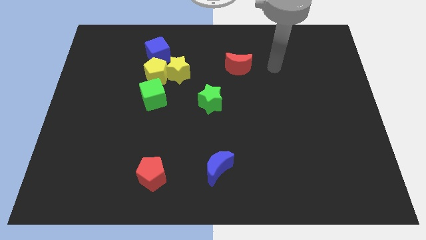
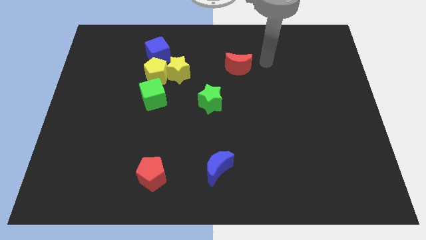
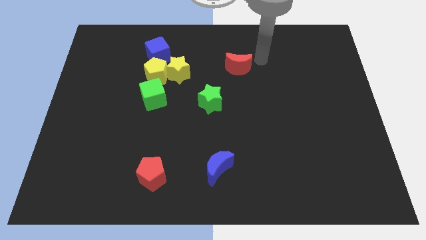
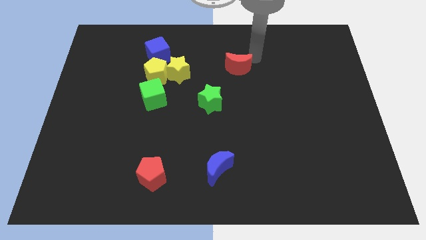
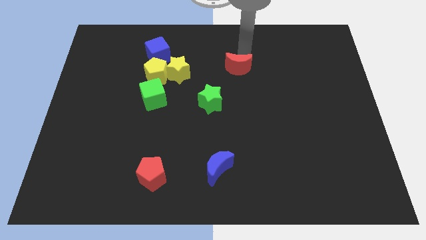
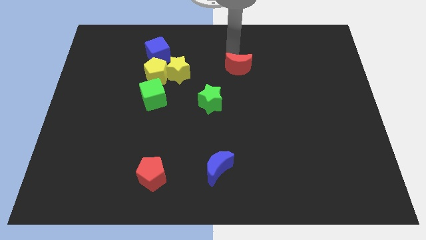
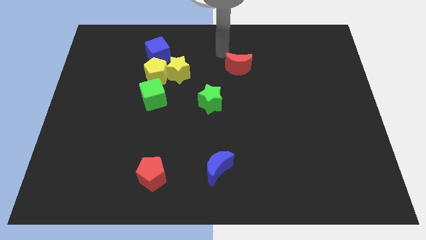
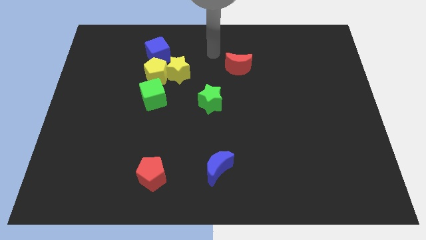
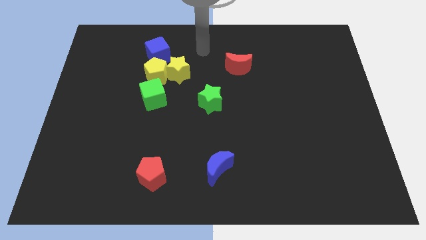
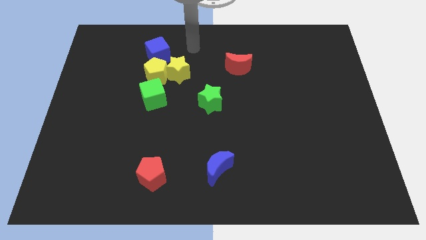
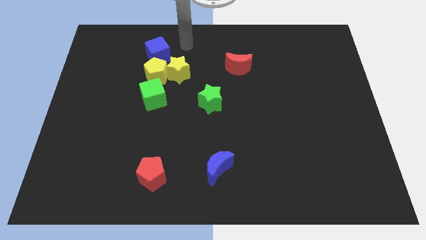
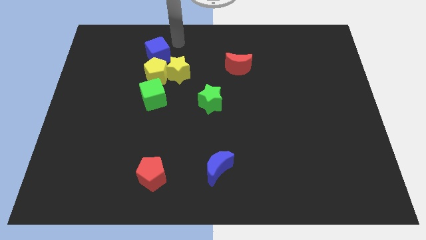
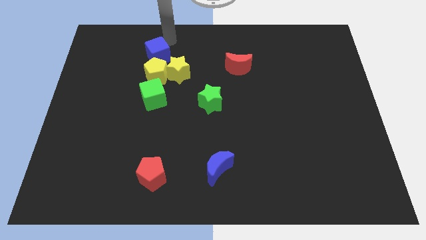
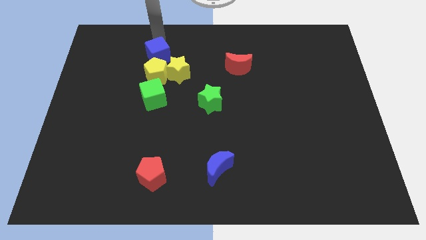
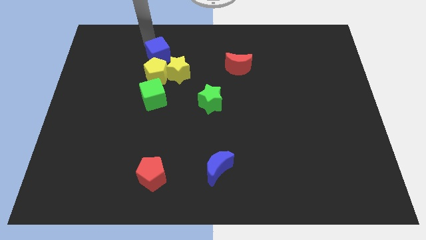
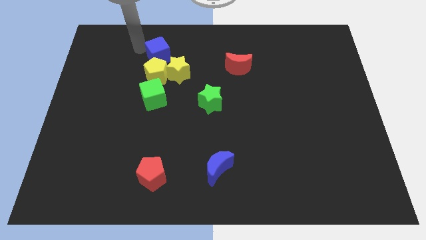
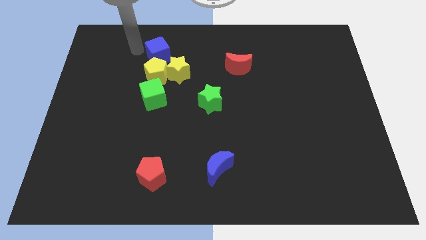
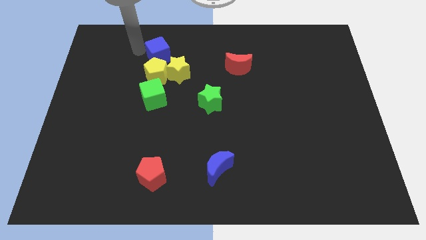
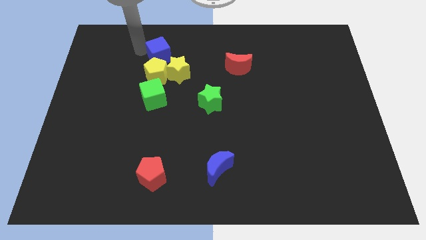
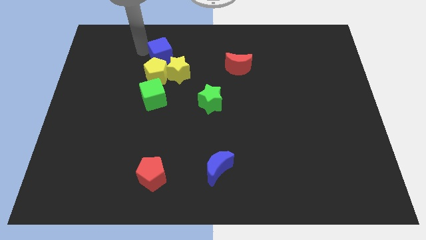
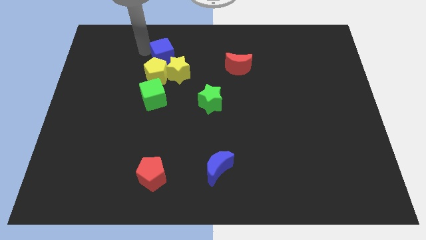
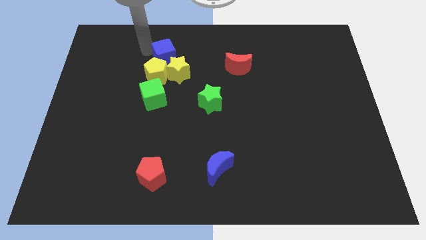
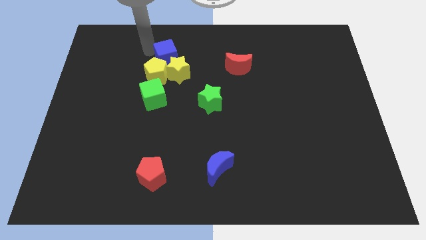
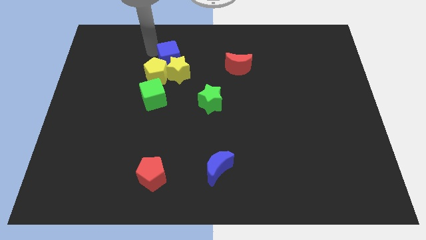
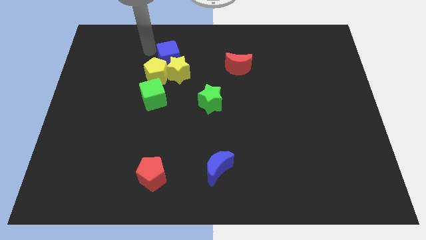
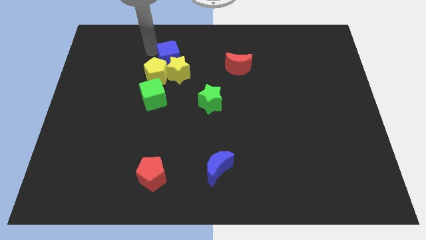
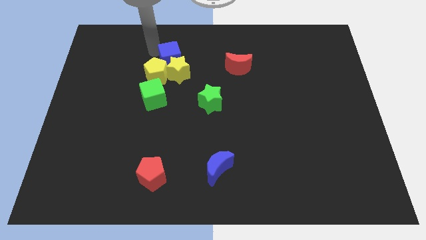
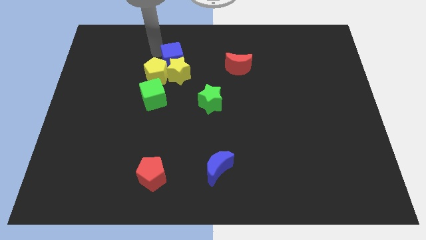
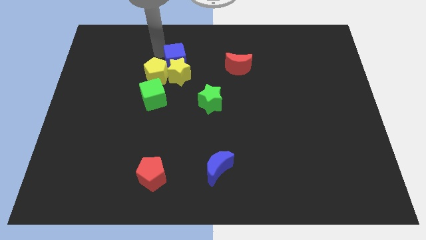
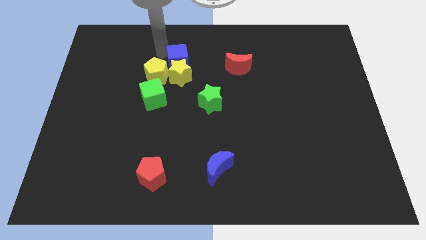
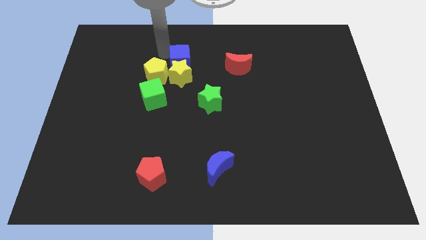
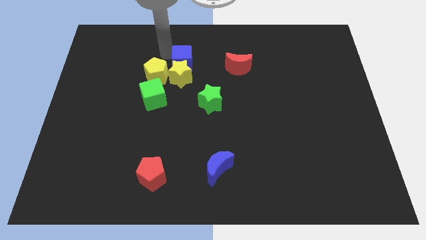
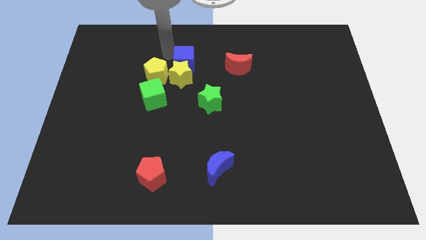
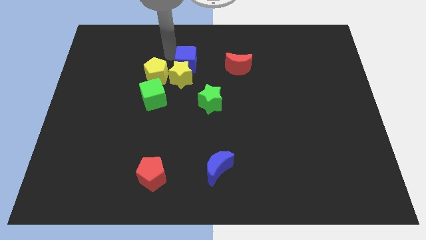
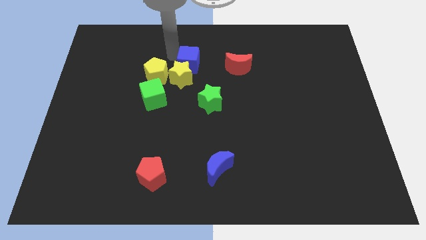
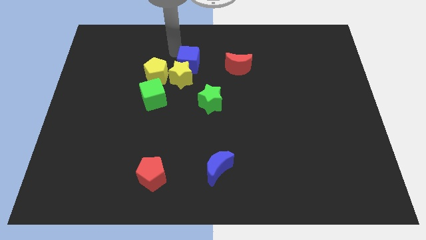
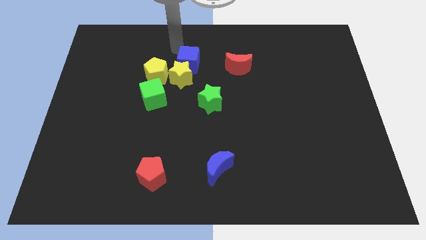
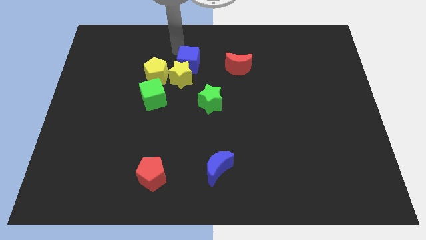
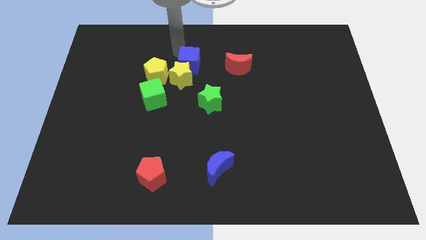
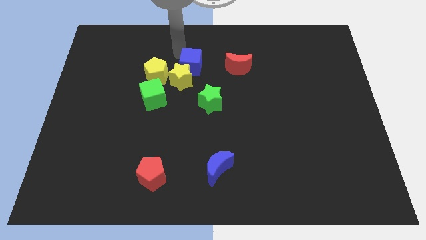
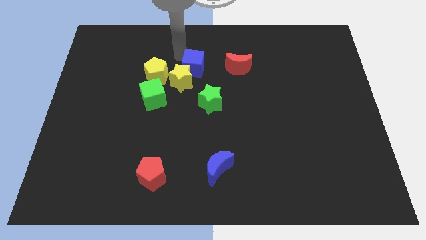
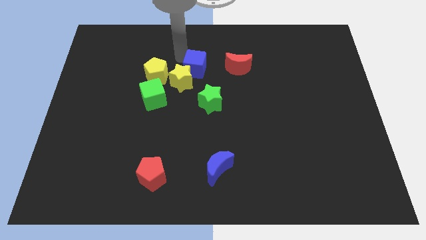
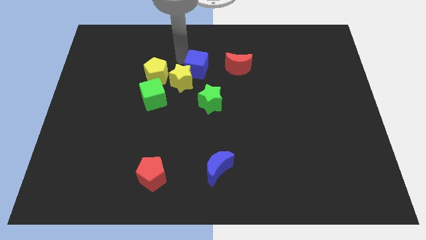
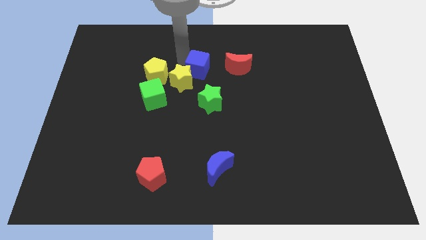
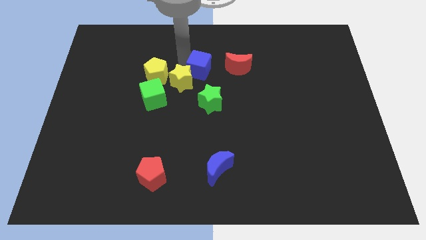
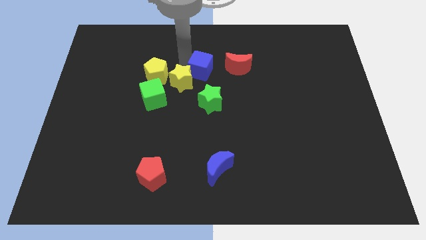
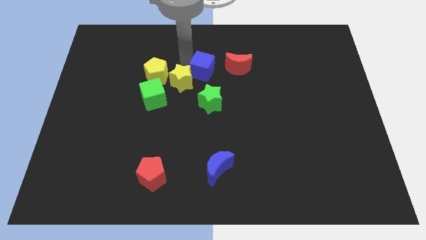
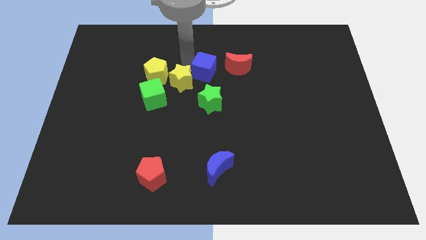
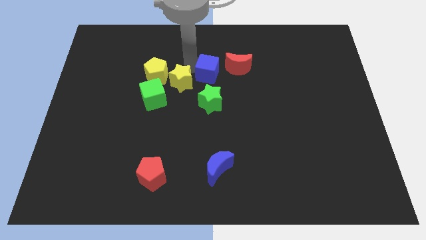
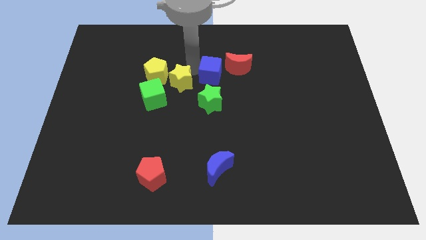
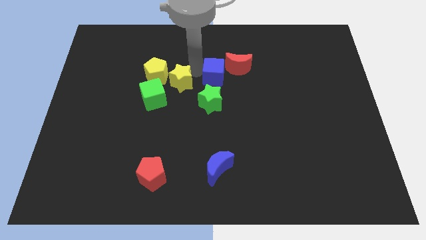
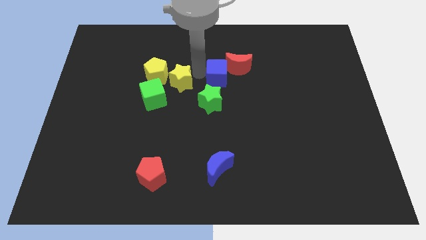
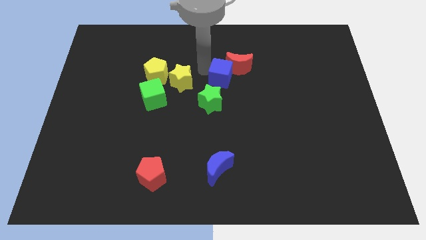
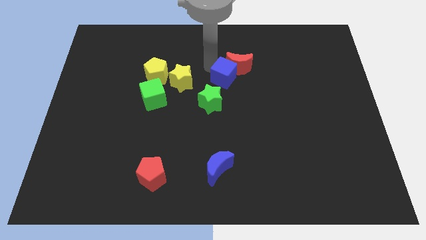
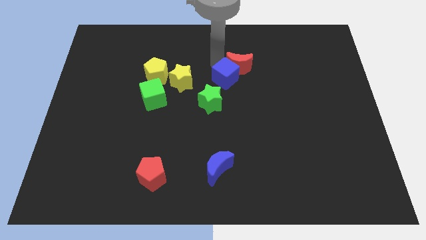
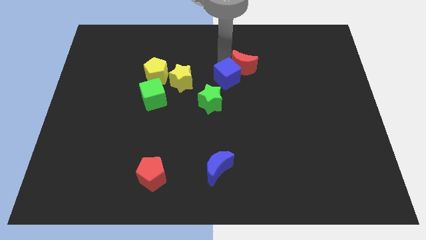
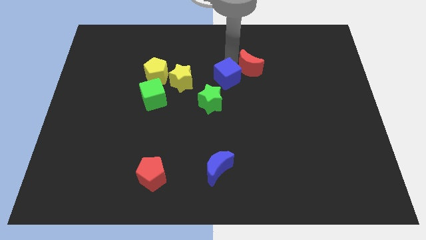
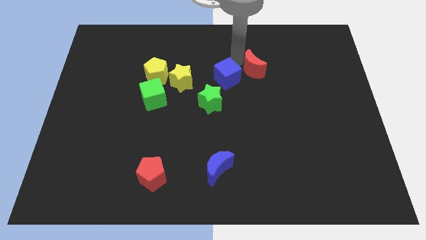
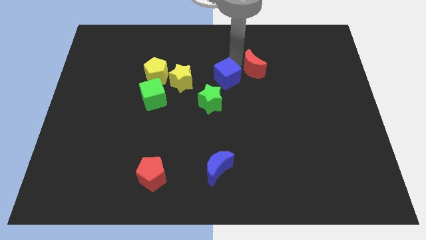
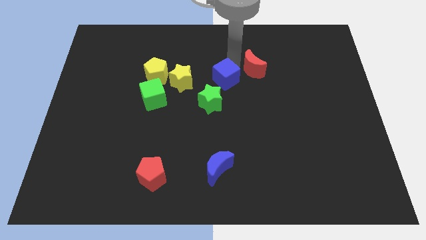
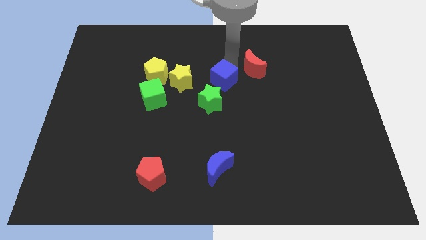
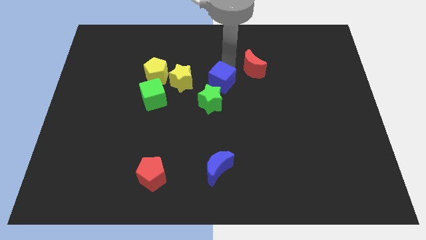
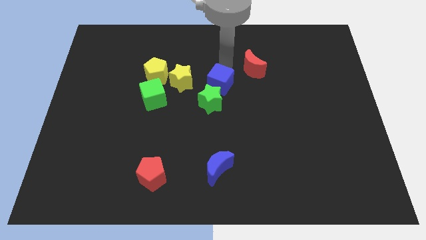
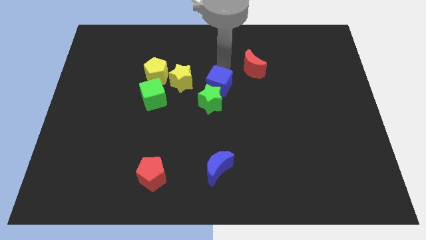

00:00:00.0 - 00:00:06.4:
move the blue cube close to the green star

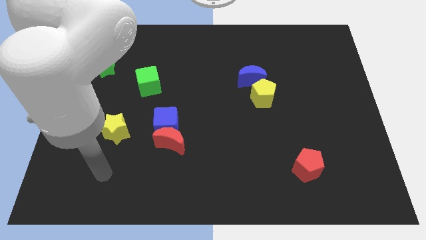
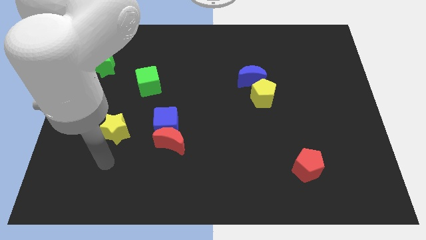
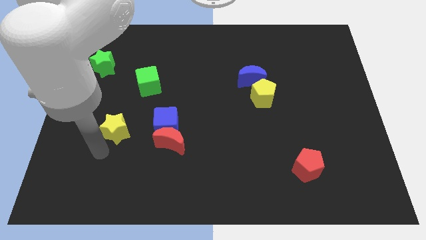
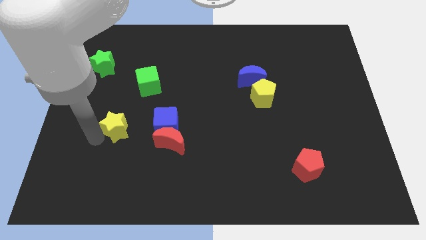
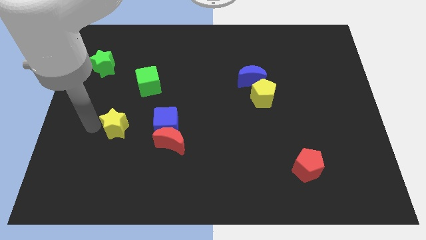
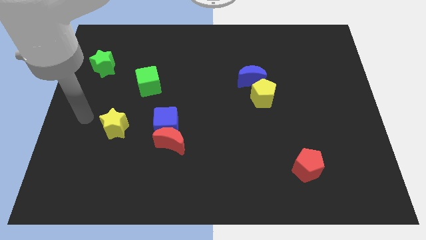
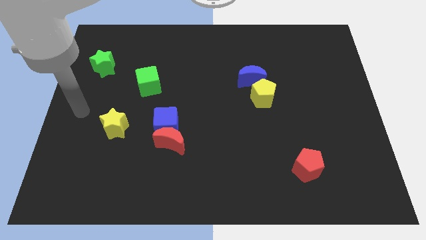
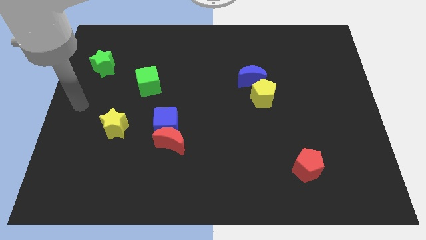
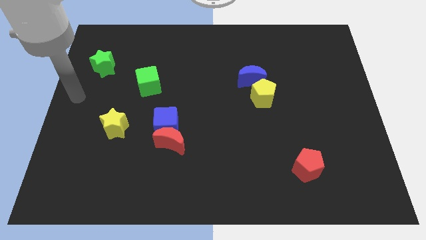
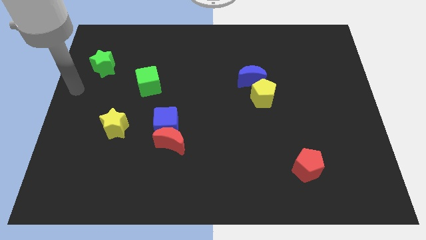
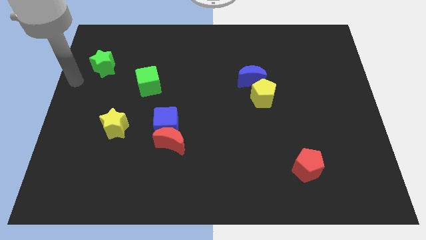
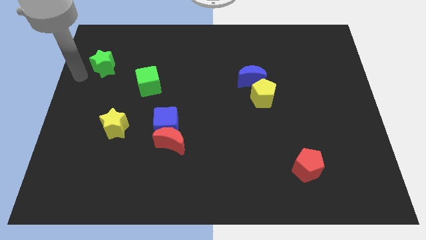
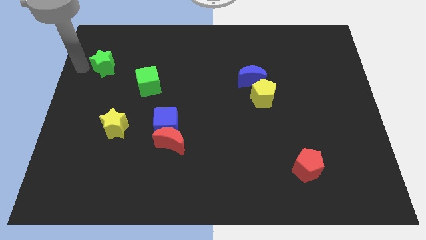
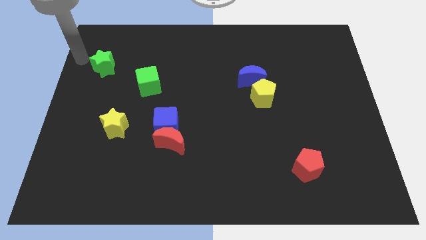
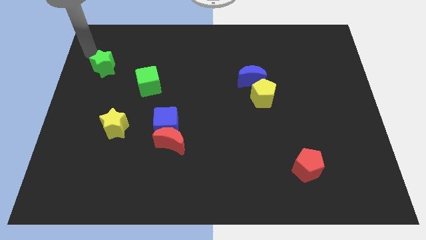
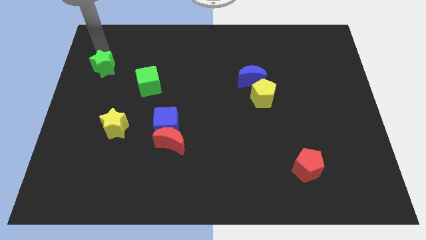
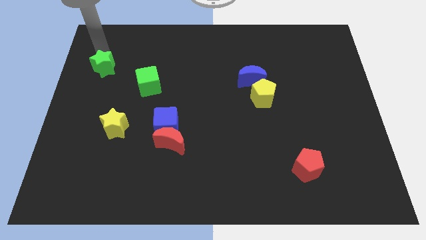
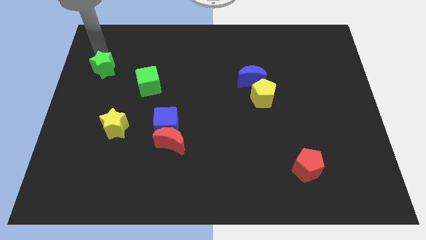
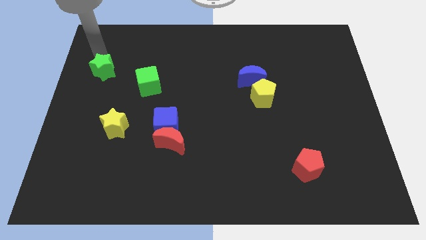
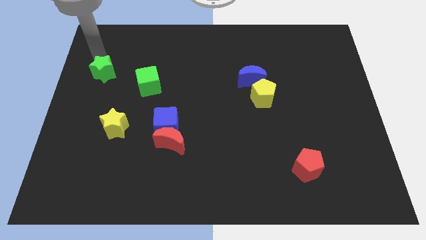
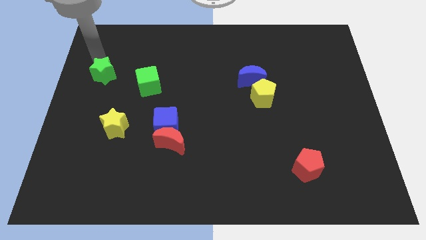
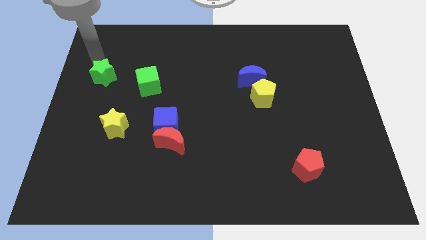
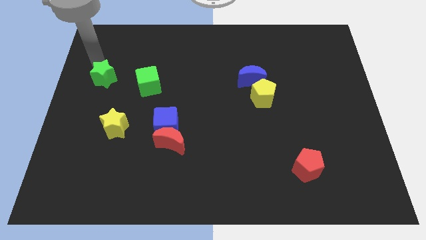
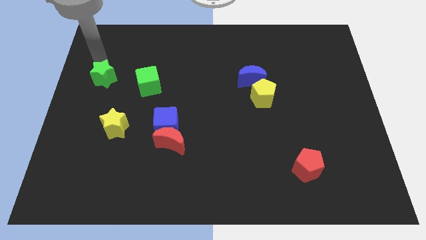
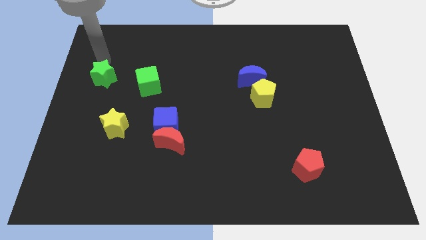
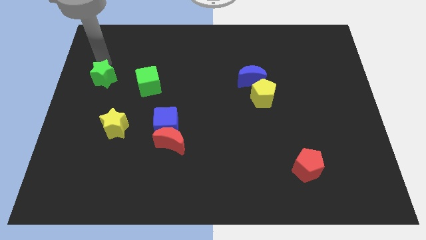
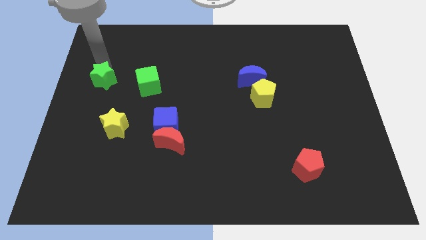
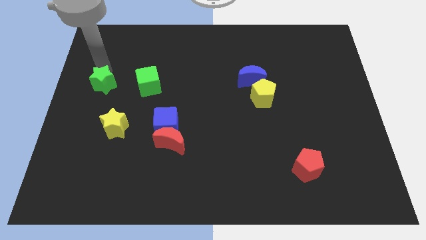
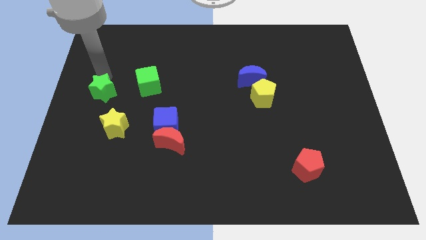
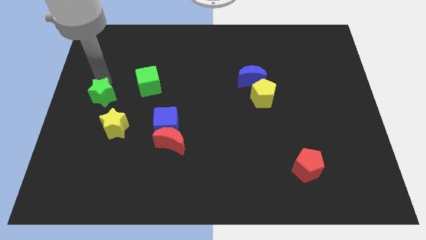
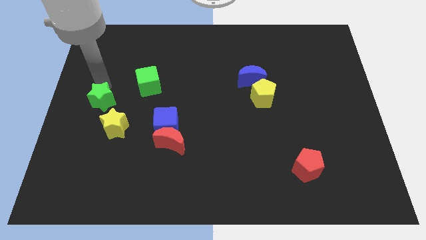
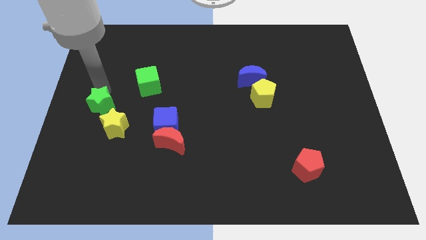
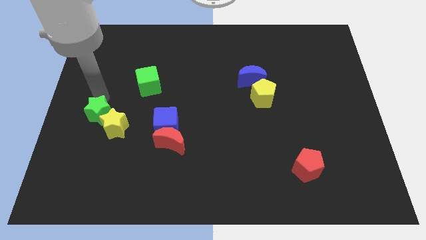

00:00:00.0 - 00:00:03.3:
slide the green star towards the yellow star
